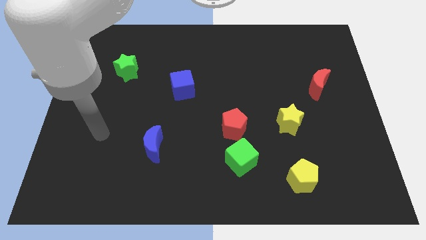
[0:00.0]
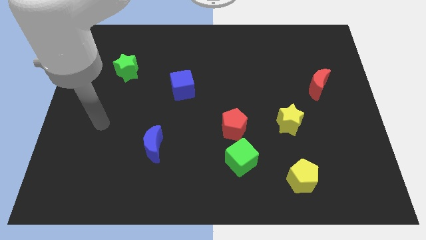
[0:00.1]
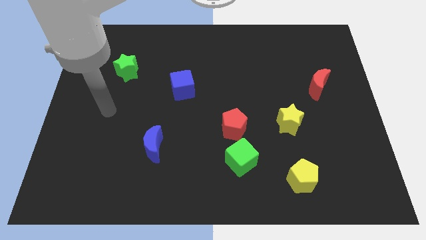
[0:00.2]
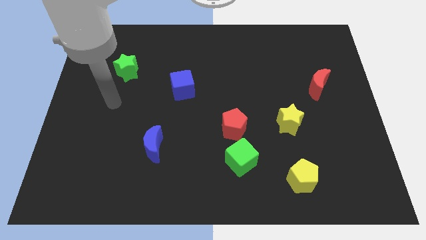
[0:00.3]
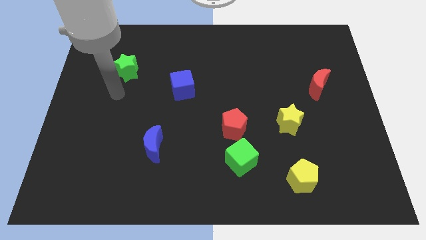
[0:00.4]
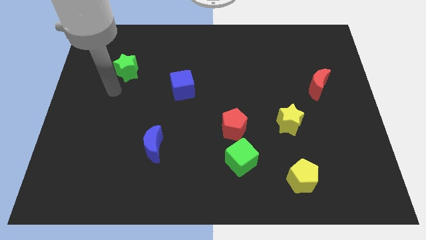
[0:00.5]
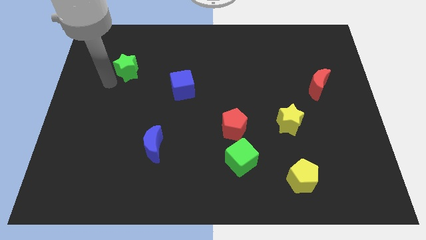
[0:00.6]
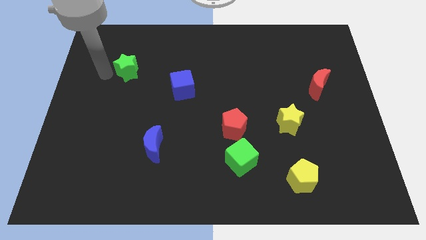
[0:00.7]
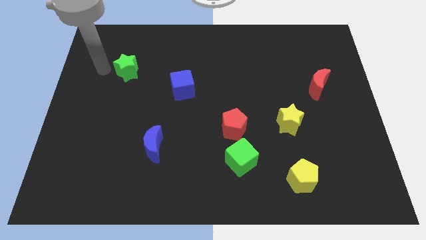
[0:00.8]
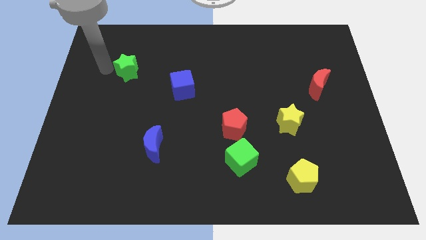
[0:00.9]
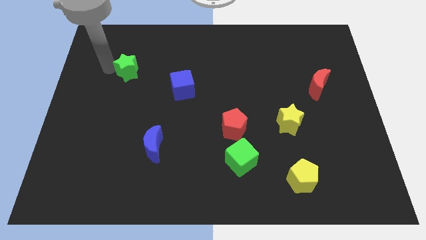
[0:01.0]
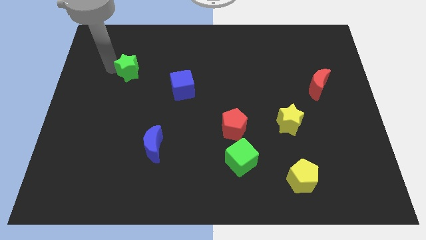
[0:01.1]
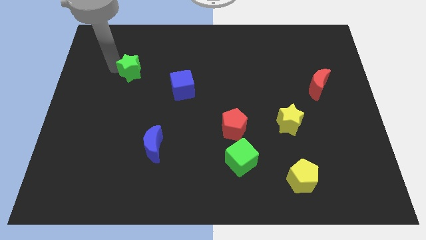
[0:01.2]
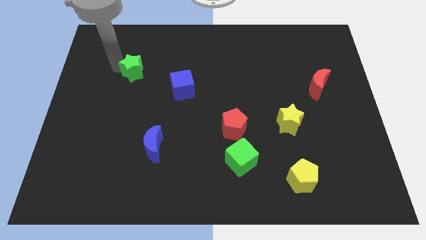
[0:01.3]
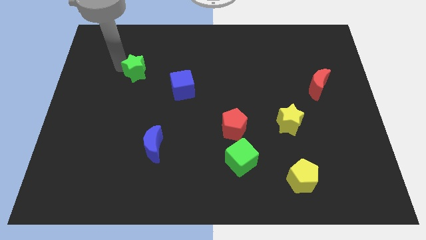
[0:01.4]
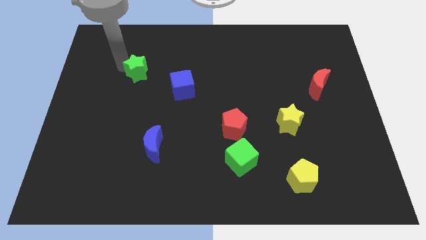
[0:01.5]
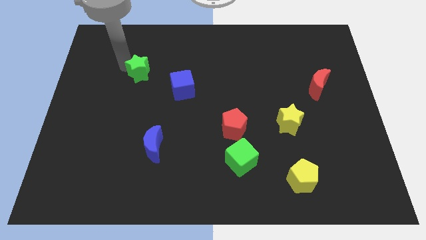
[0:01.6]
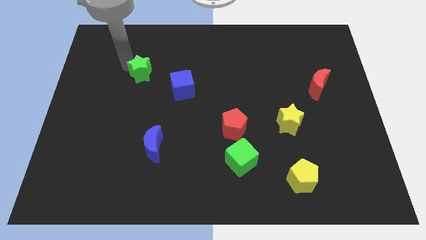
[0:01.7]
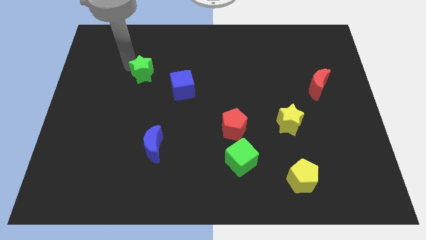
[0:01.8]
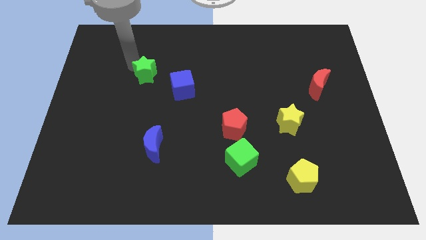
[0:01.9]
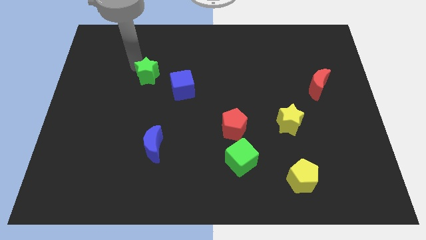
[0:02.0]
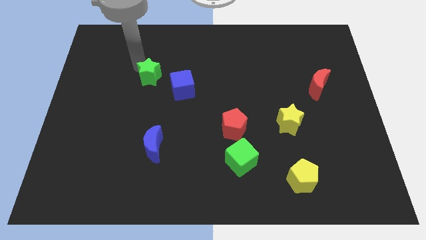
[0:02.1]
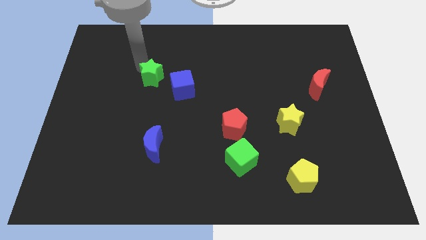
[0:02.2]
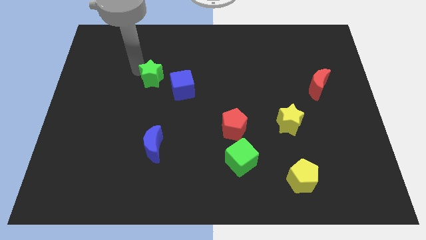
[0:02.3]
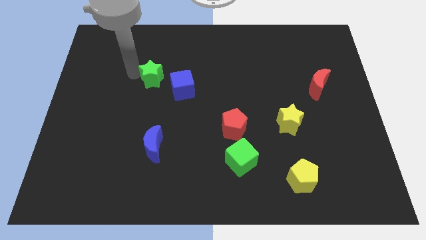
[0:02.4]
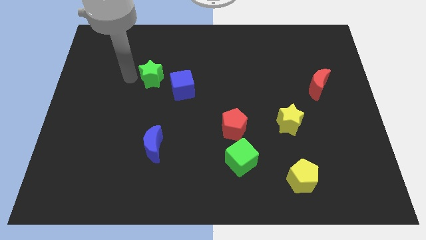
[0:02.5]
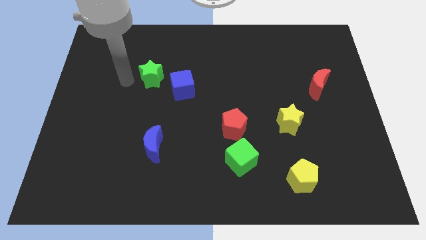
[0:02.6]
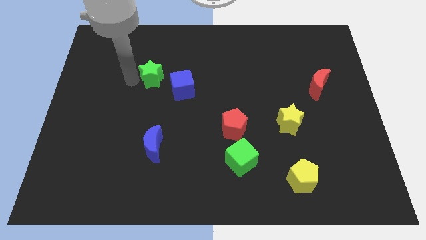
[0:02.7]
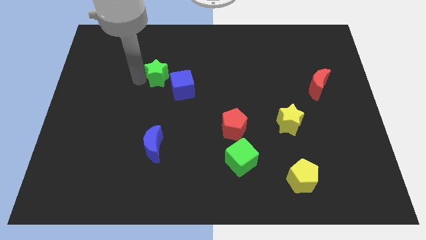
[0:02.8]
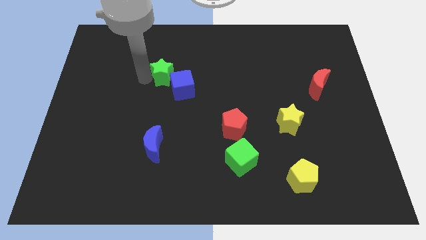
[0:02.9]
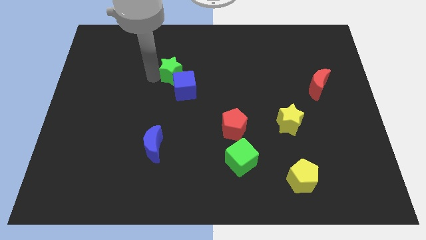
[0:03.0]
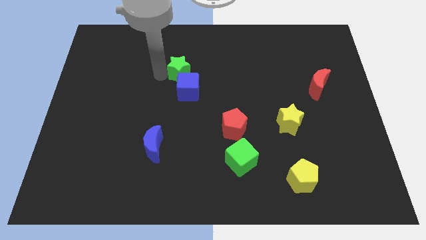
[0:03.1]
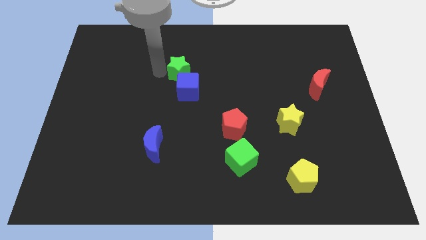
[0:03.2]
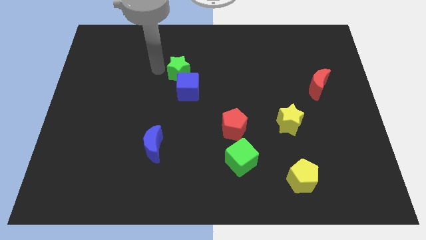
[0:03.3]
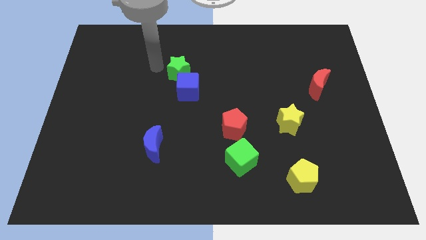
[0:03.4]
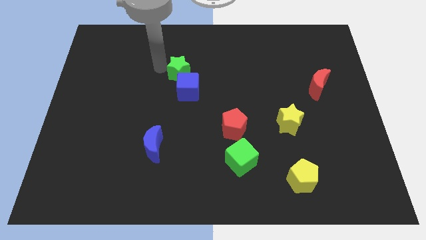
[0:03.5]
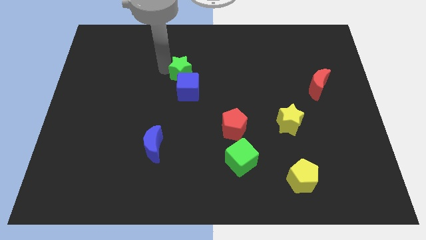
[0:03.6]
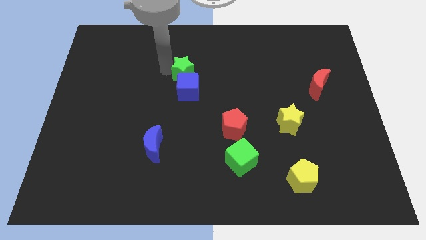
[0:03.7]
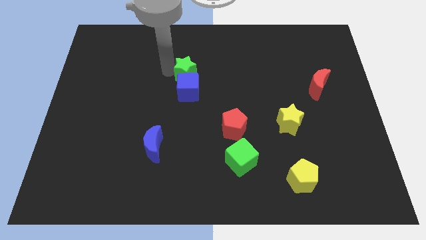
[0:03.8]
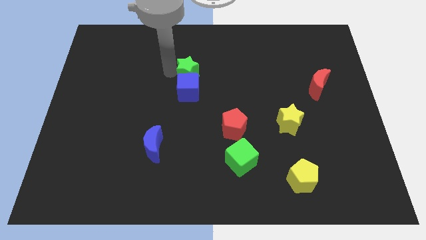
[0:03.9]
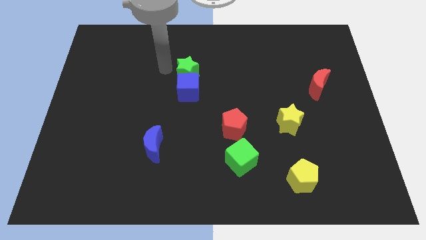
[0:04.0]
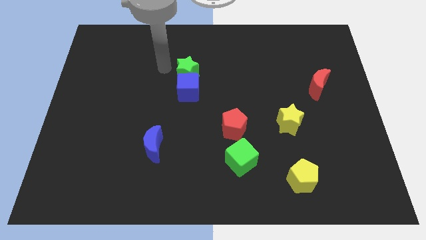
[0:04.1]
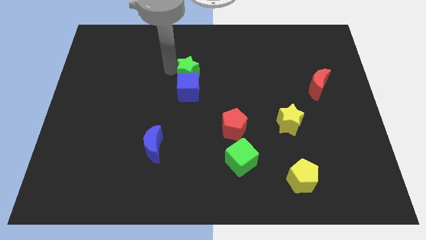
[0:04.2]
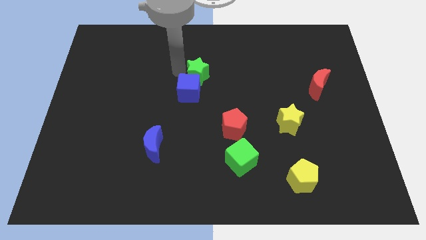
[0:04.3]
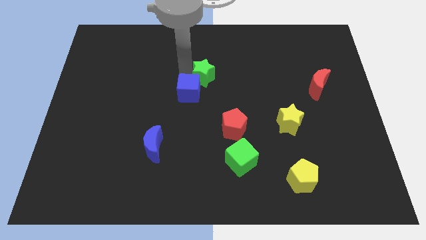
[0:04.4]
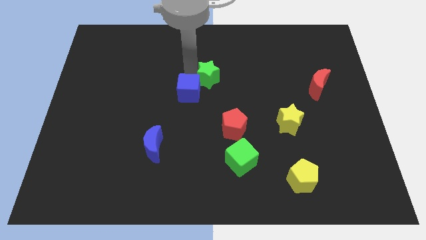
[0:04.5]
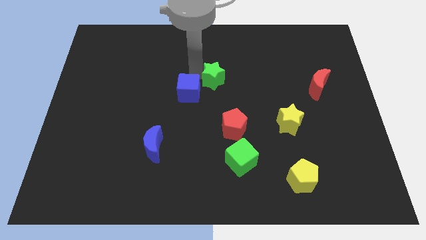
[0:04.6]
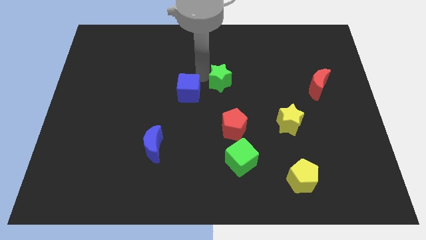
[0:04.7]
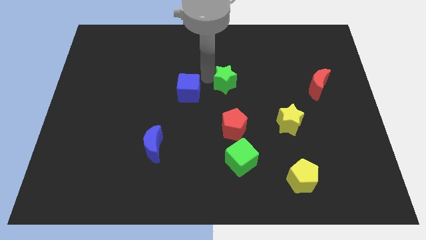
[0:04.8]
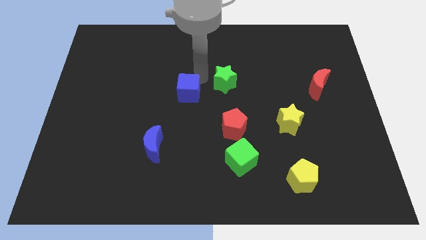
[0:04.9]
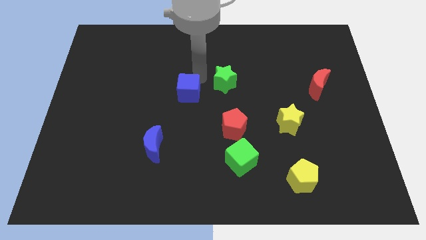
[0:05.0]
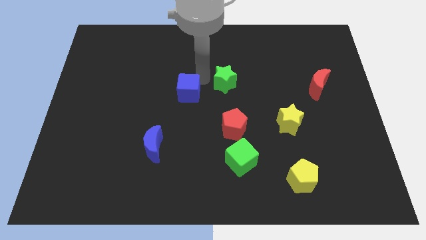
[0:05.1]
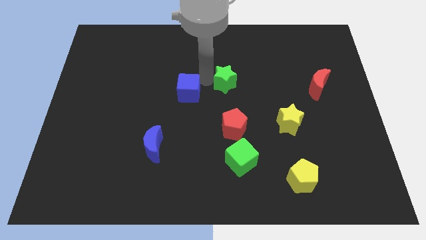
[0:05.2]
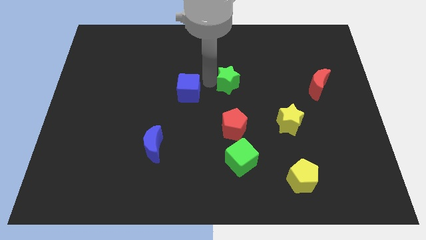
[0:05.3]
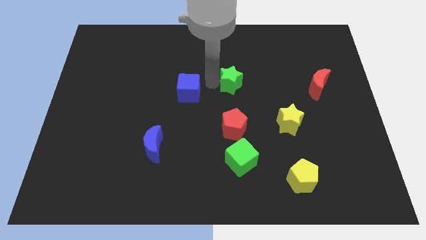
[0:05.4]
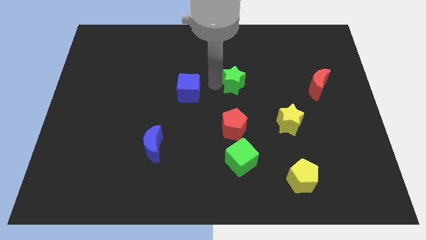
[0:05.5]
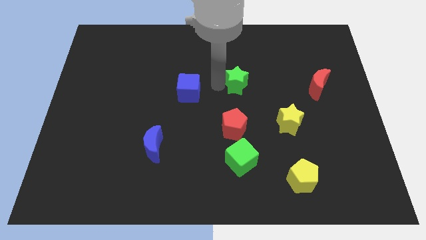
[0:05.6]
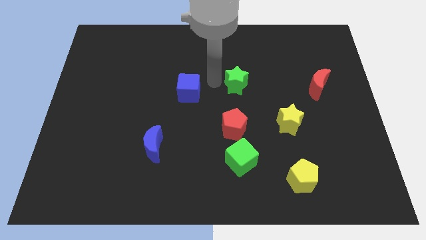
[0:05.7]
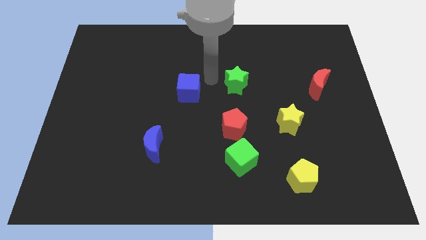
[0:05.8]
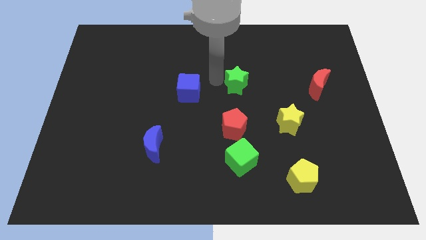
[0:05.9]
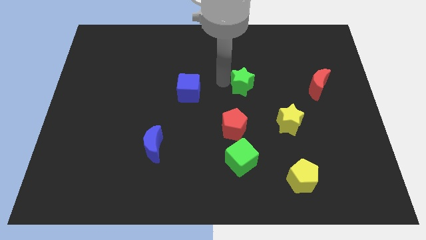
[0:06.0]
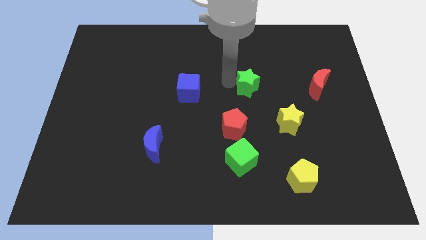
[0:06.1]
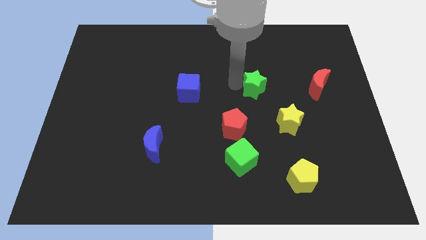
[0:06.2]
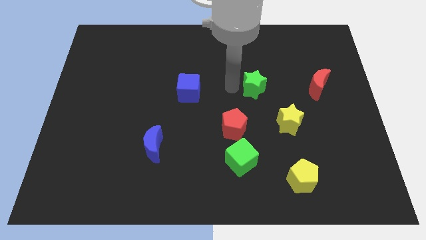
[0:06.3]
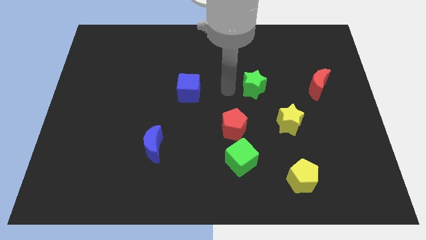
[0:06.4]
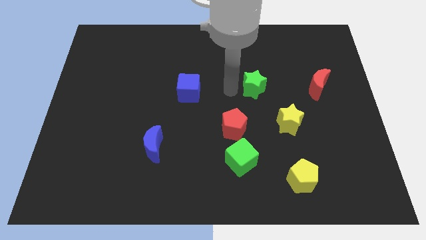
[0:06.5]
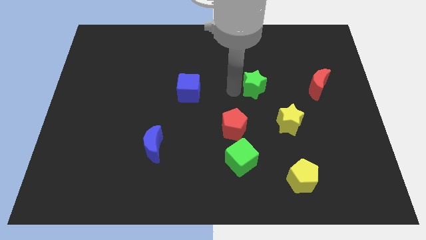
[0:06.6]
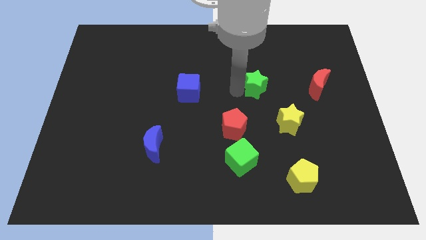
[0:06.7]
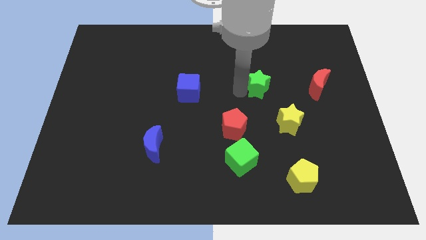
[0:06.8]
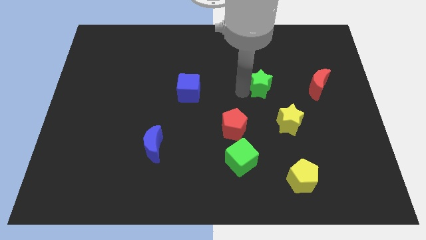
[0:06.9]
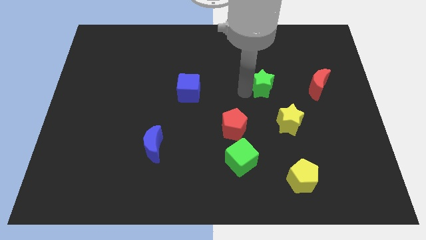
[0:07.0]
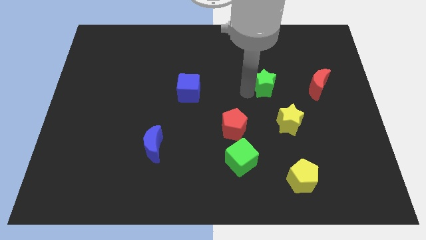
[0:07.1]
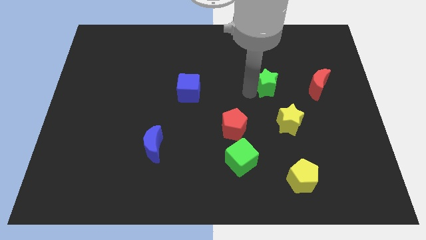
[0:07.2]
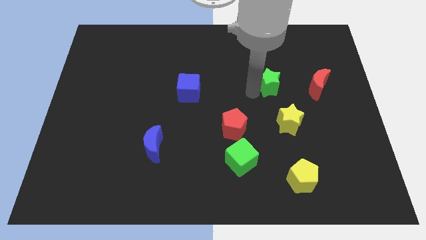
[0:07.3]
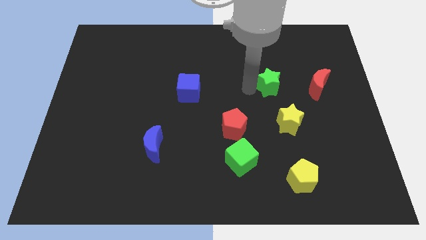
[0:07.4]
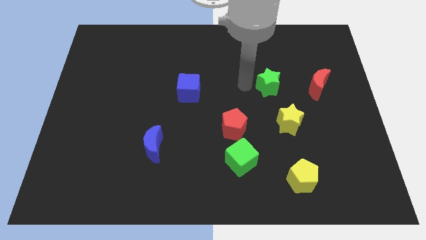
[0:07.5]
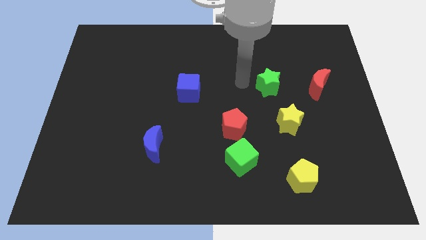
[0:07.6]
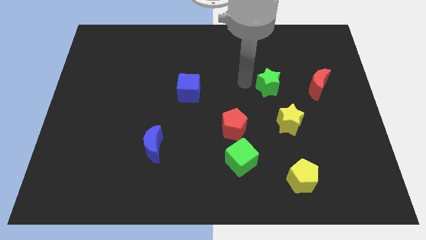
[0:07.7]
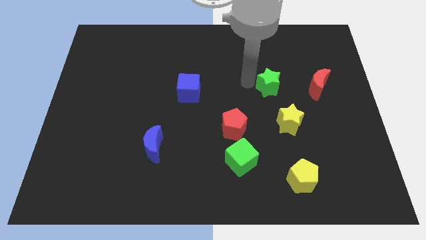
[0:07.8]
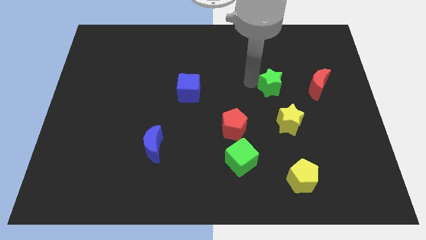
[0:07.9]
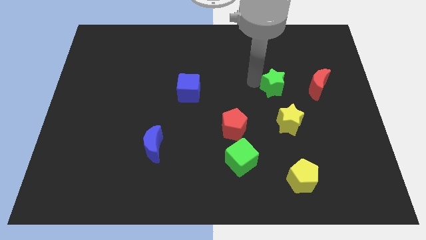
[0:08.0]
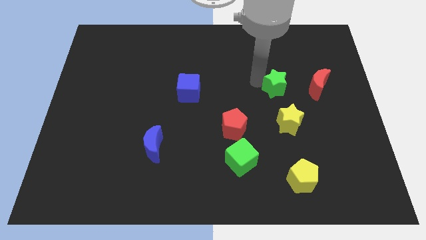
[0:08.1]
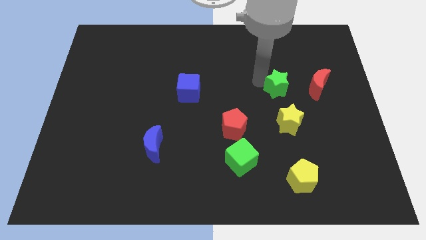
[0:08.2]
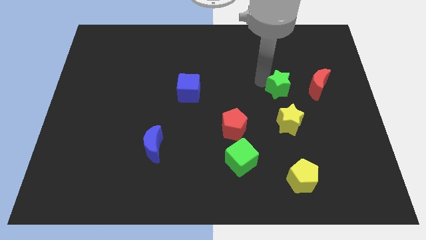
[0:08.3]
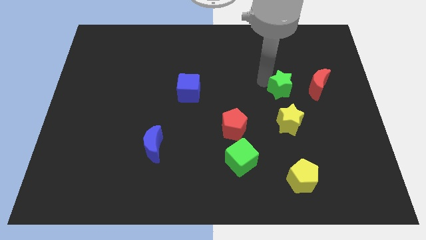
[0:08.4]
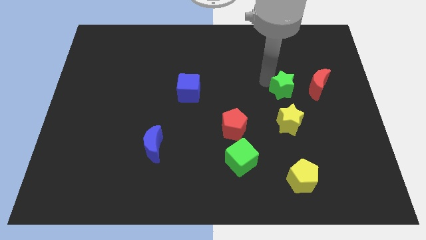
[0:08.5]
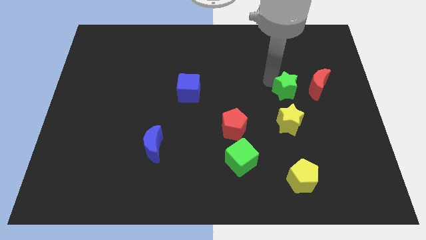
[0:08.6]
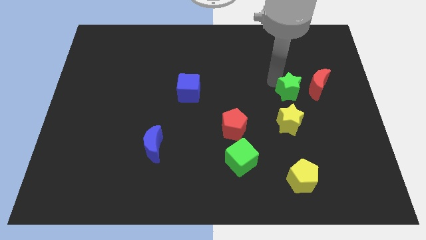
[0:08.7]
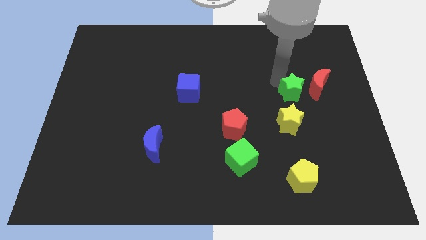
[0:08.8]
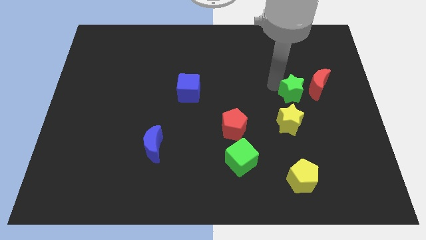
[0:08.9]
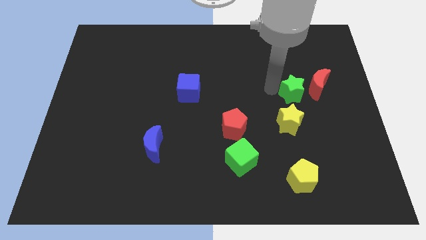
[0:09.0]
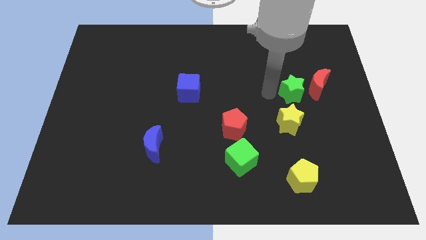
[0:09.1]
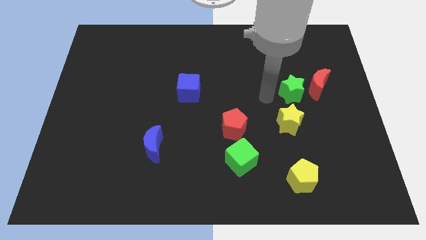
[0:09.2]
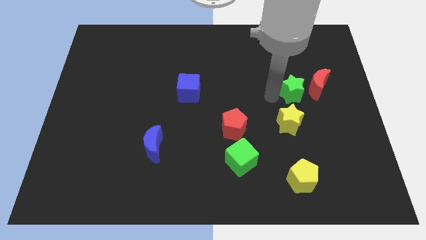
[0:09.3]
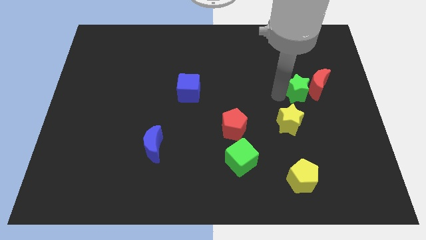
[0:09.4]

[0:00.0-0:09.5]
put the green star close to the red moon
